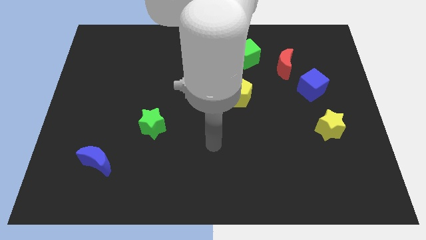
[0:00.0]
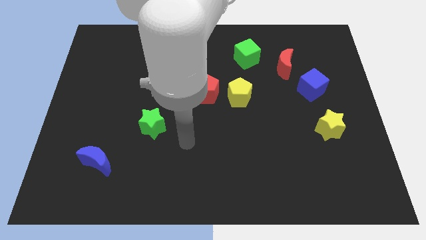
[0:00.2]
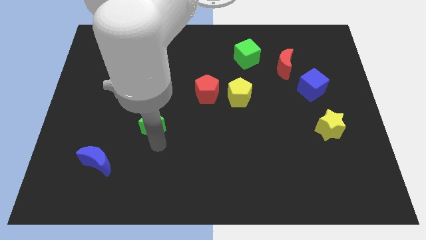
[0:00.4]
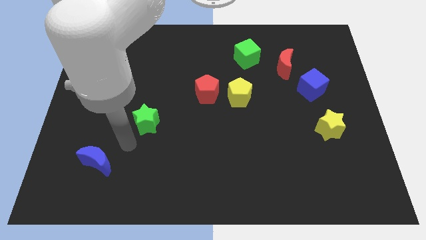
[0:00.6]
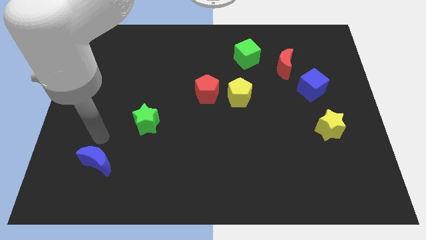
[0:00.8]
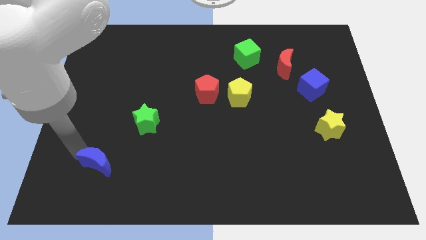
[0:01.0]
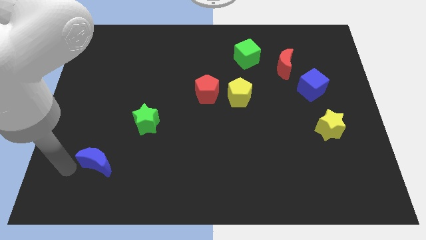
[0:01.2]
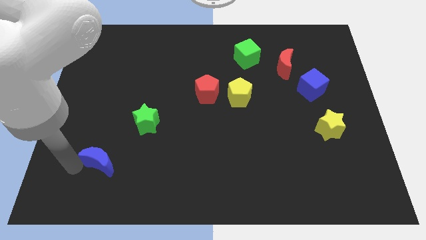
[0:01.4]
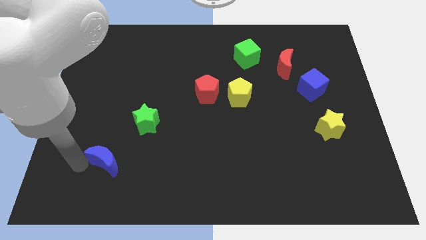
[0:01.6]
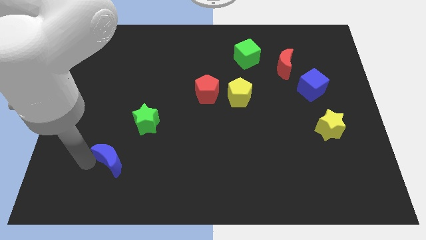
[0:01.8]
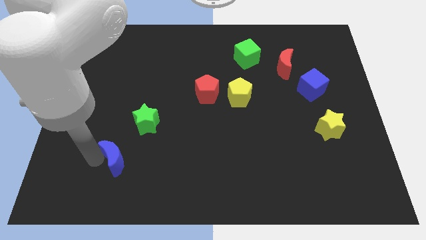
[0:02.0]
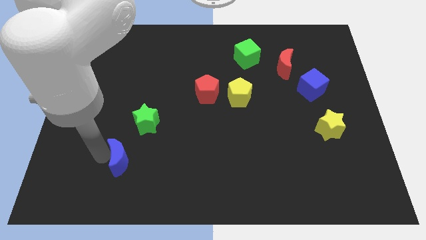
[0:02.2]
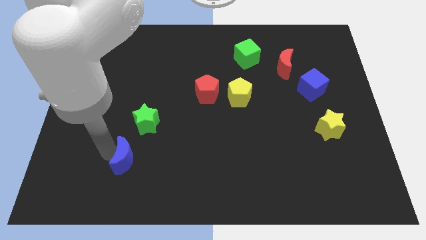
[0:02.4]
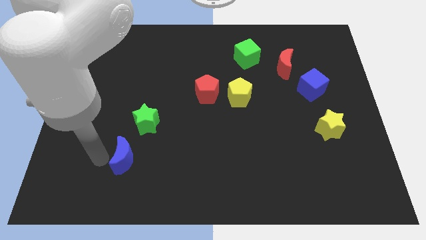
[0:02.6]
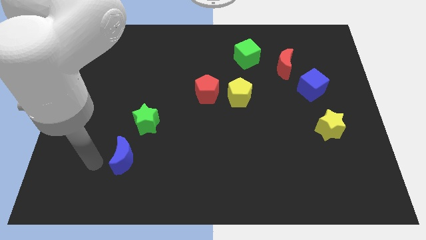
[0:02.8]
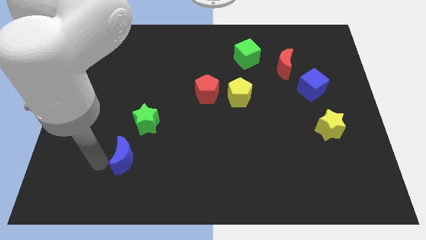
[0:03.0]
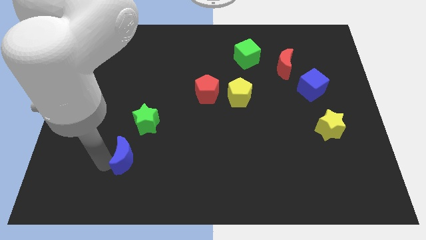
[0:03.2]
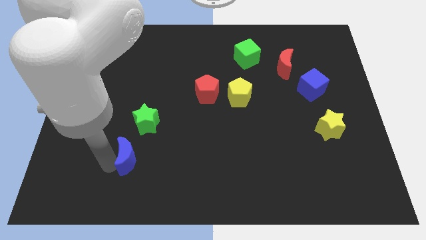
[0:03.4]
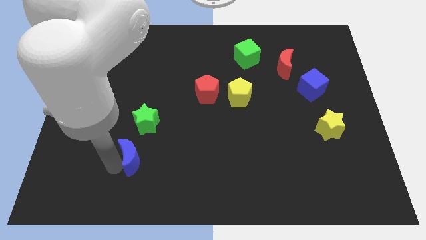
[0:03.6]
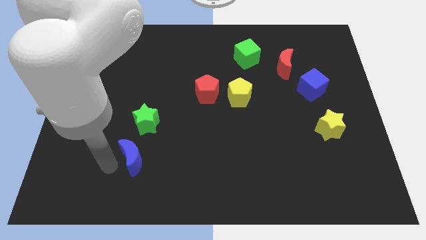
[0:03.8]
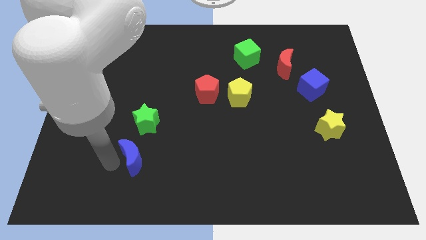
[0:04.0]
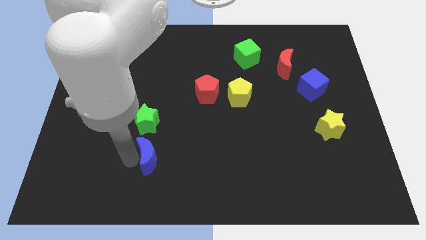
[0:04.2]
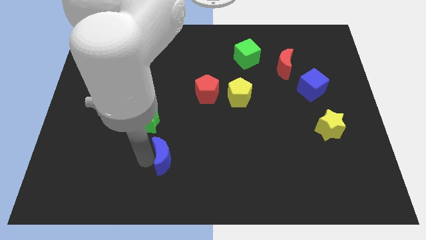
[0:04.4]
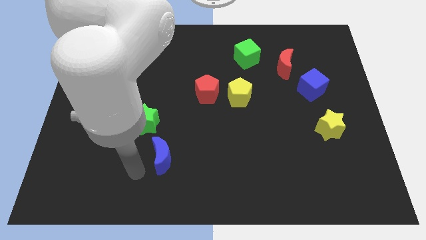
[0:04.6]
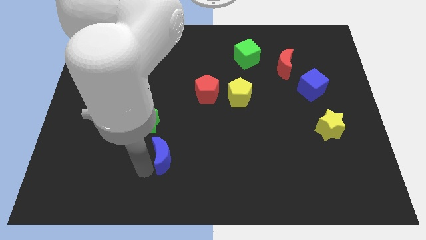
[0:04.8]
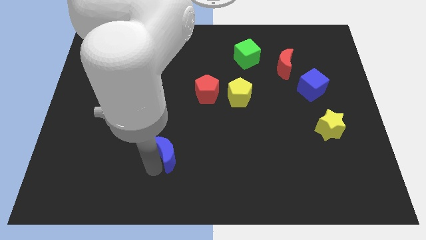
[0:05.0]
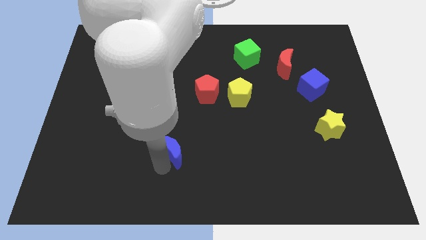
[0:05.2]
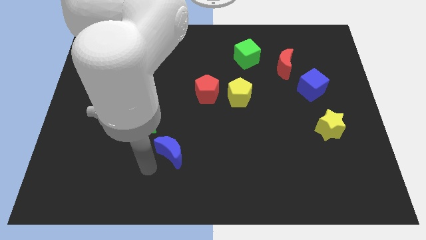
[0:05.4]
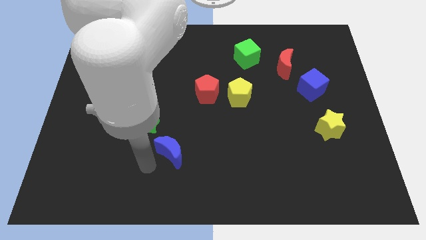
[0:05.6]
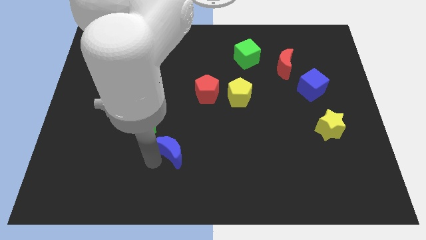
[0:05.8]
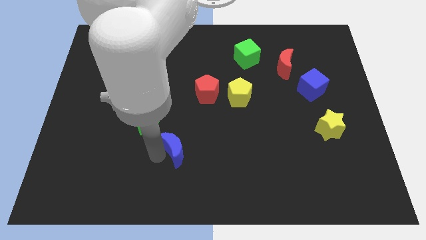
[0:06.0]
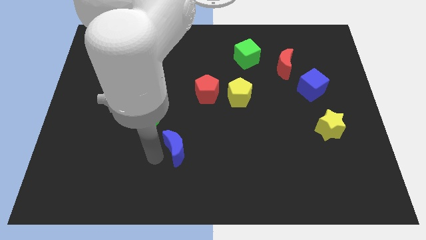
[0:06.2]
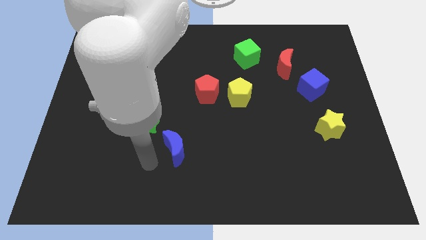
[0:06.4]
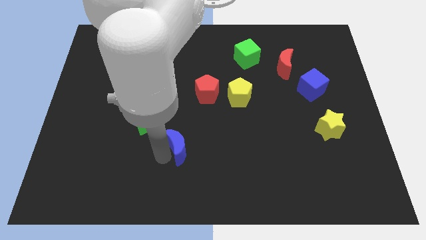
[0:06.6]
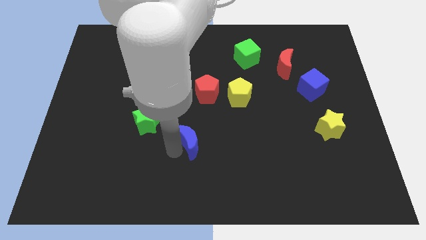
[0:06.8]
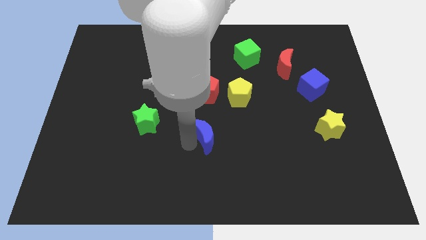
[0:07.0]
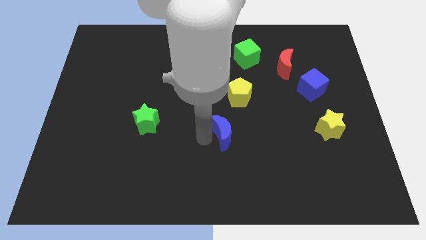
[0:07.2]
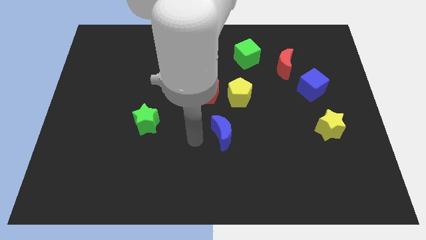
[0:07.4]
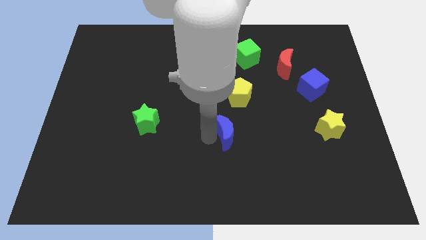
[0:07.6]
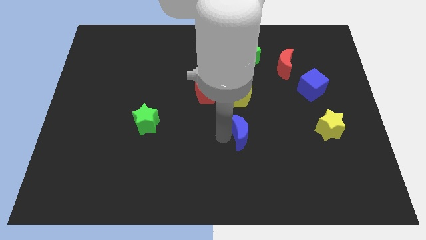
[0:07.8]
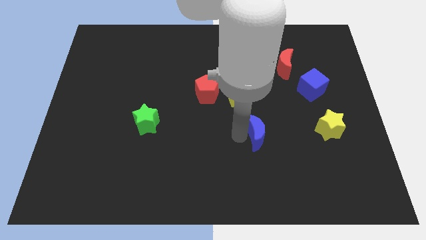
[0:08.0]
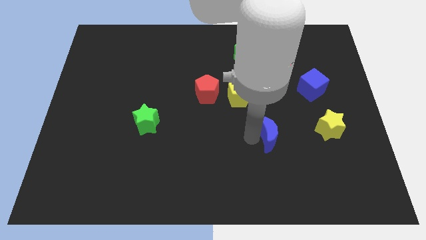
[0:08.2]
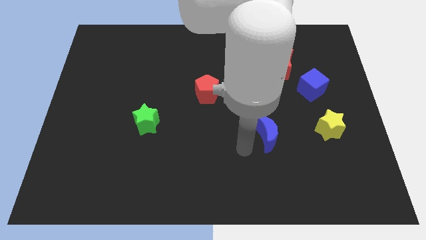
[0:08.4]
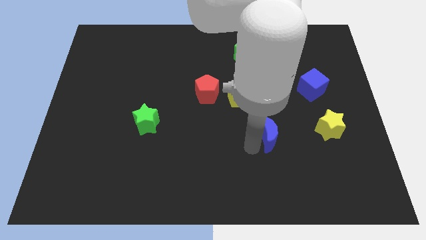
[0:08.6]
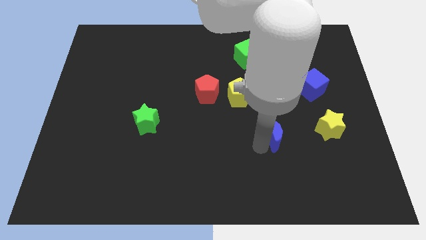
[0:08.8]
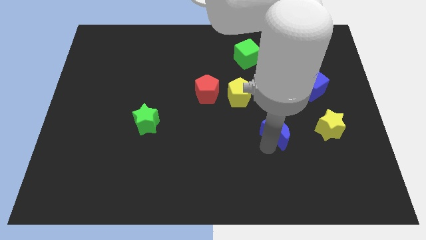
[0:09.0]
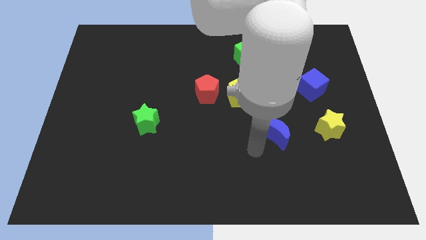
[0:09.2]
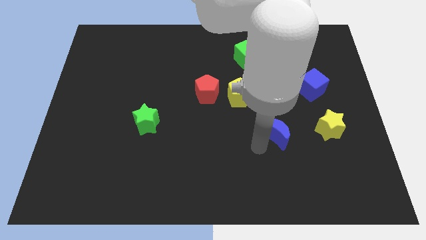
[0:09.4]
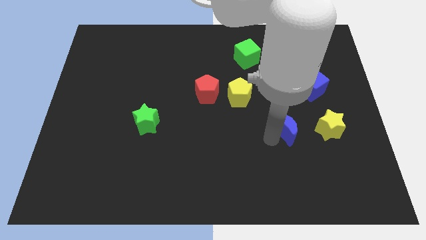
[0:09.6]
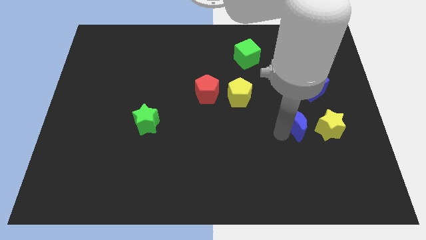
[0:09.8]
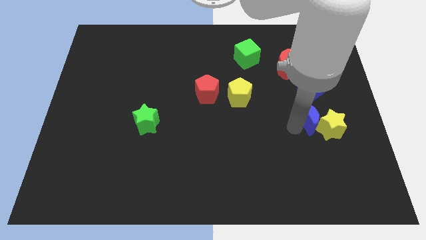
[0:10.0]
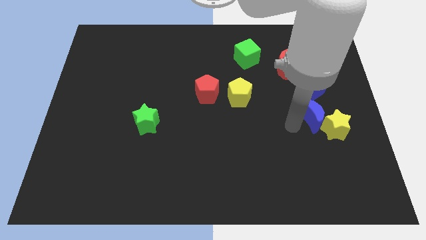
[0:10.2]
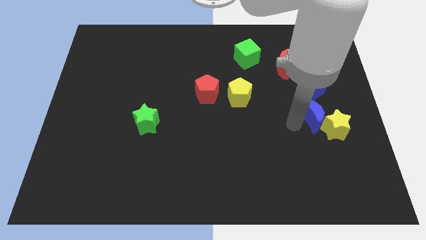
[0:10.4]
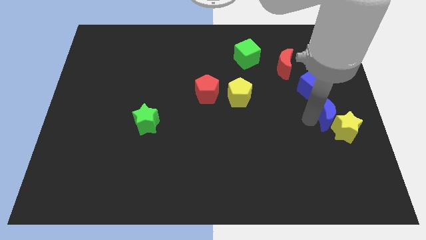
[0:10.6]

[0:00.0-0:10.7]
put the blue moon to the right side of the board

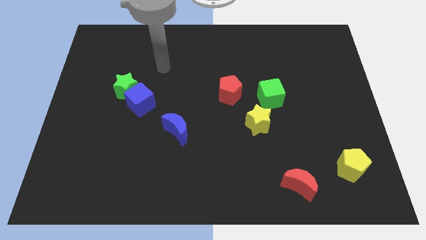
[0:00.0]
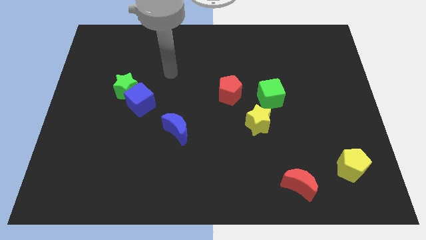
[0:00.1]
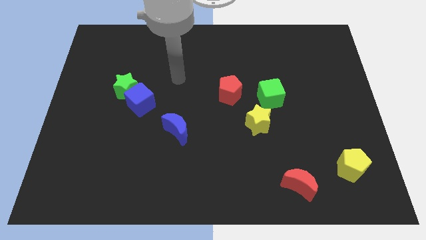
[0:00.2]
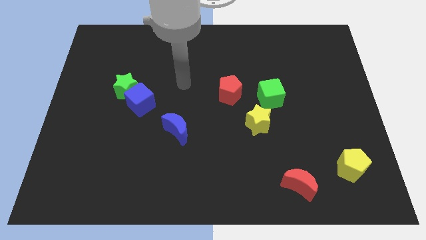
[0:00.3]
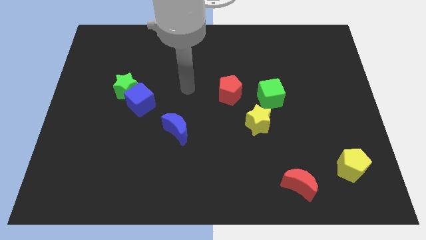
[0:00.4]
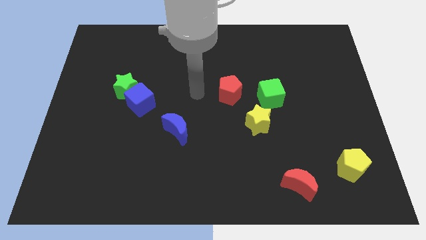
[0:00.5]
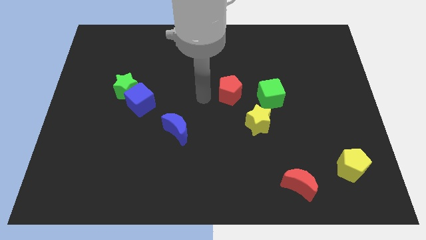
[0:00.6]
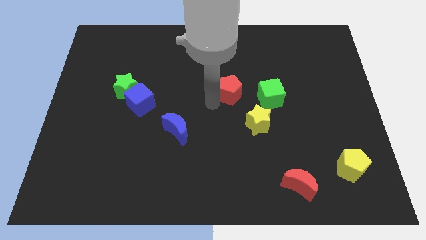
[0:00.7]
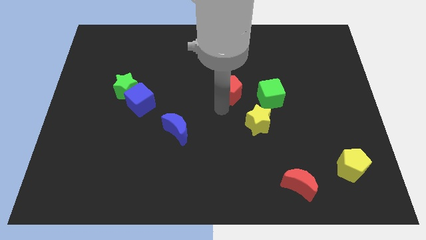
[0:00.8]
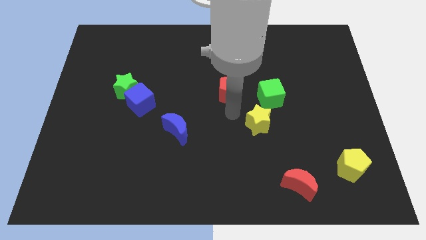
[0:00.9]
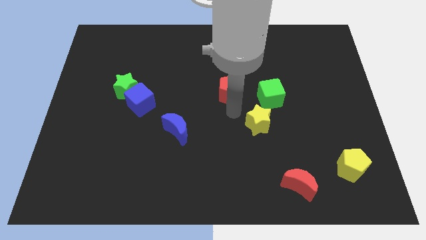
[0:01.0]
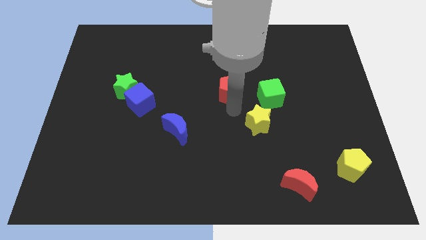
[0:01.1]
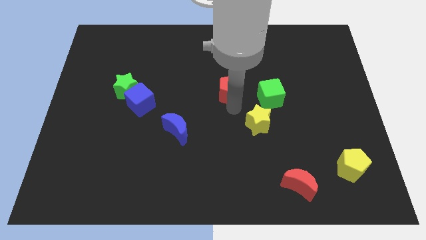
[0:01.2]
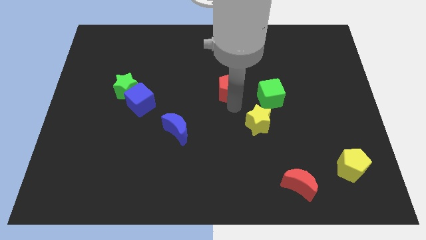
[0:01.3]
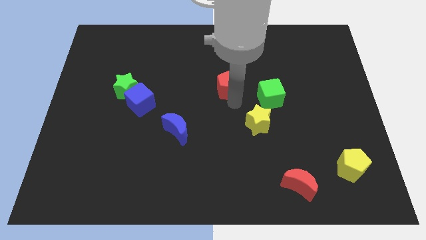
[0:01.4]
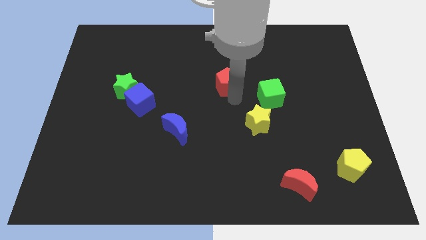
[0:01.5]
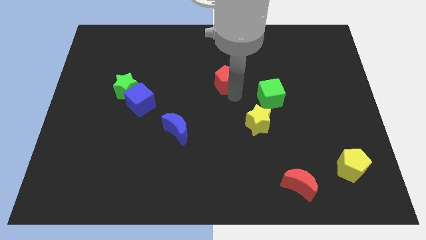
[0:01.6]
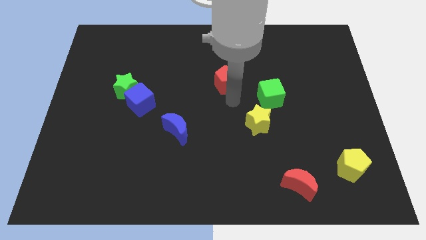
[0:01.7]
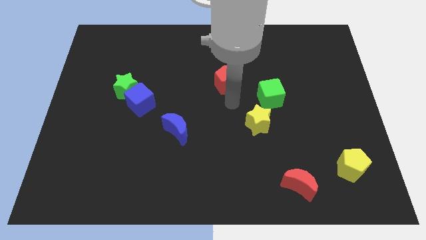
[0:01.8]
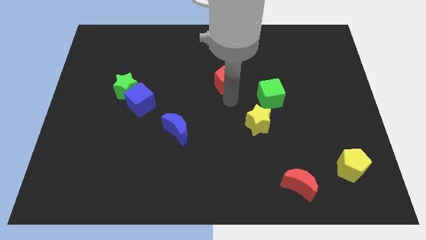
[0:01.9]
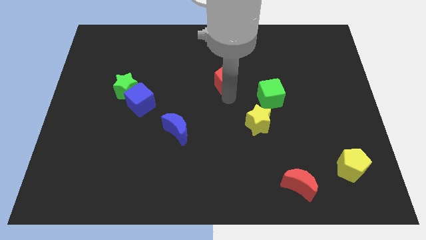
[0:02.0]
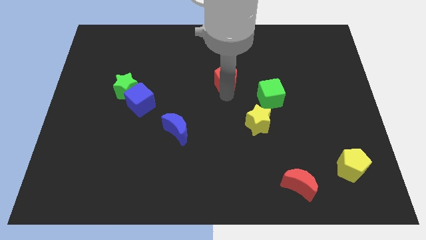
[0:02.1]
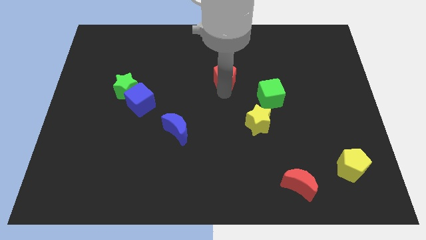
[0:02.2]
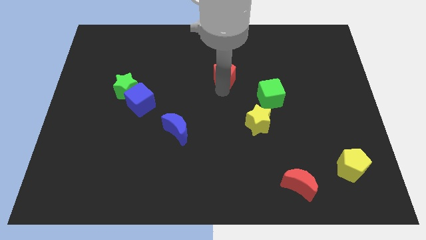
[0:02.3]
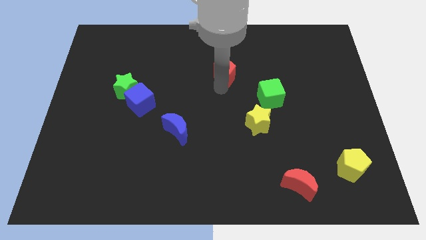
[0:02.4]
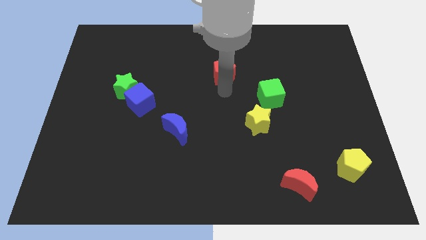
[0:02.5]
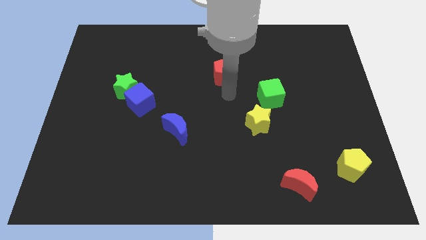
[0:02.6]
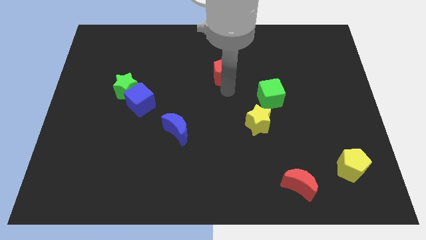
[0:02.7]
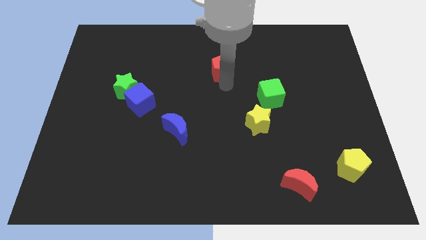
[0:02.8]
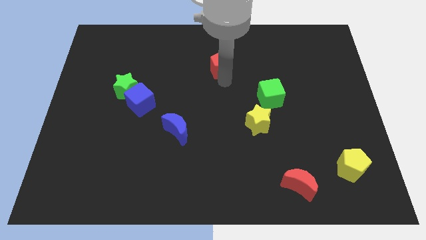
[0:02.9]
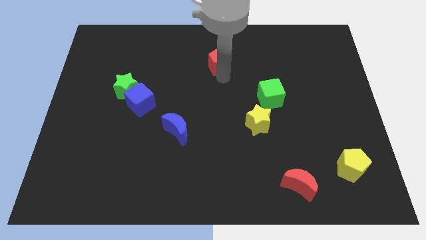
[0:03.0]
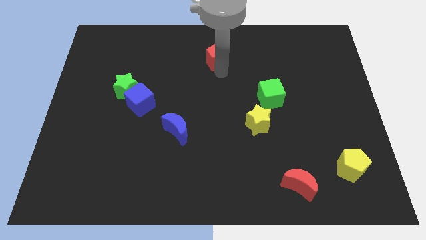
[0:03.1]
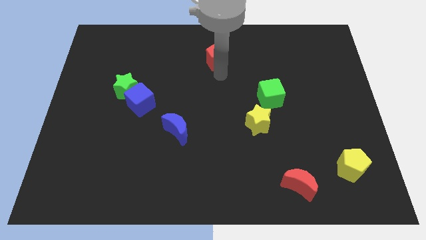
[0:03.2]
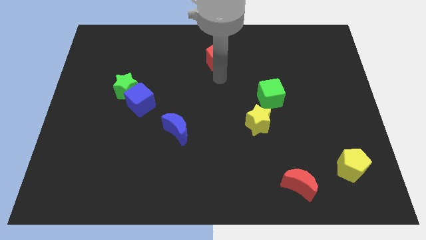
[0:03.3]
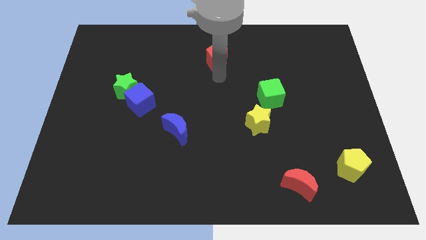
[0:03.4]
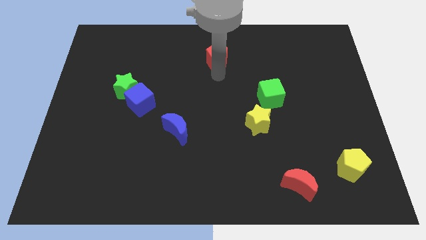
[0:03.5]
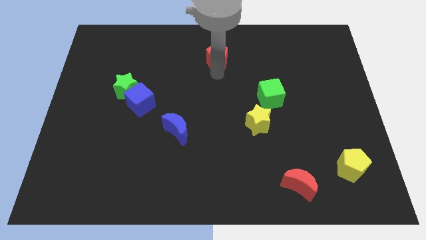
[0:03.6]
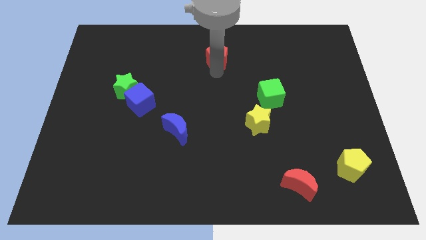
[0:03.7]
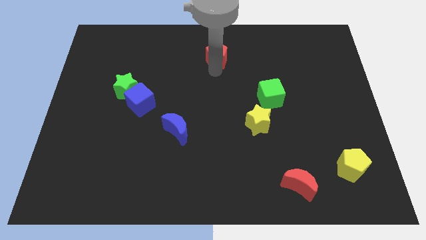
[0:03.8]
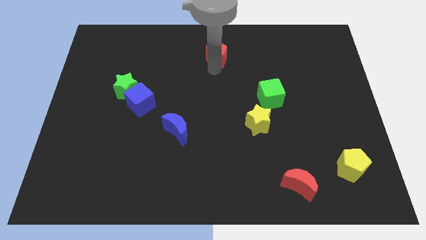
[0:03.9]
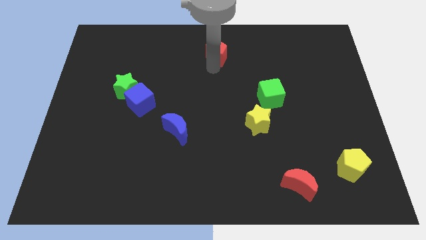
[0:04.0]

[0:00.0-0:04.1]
move the red pentagon to the top
